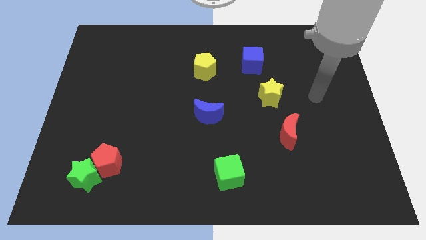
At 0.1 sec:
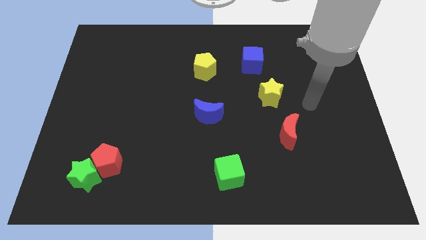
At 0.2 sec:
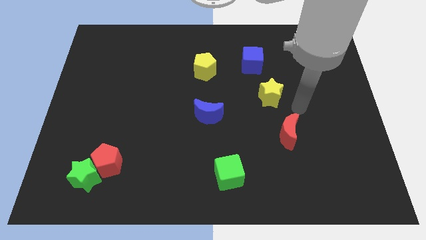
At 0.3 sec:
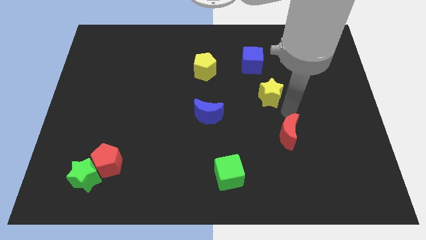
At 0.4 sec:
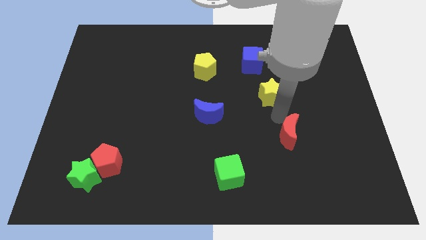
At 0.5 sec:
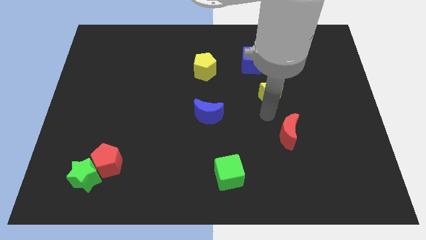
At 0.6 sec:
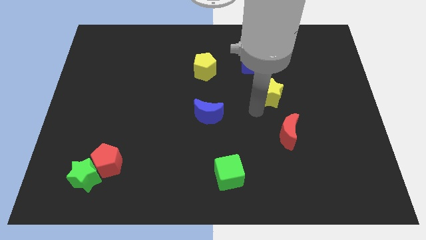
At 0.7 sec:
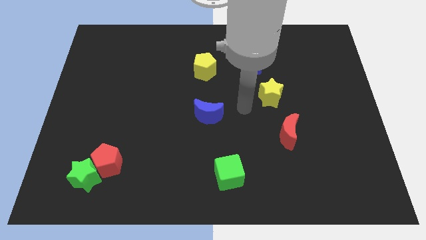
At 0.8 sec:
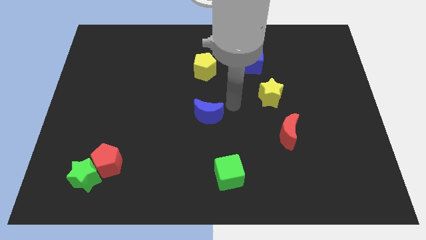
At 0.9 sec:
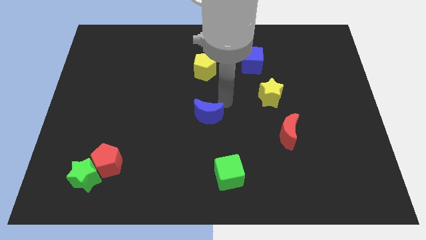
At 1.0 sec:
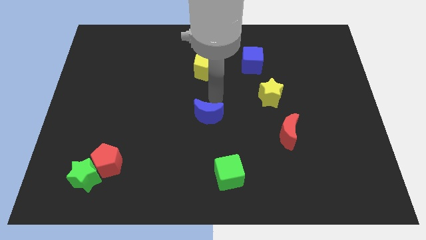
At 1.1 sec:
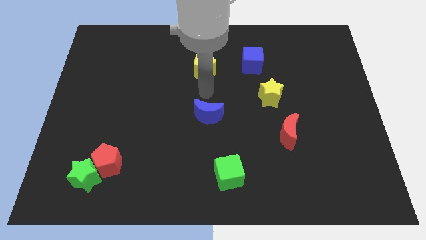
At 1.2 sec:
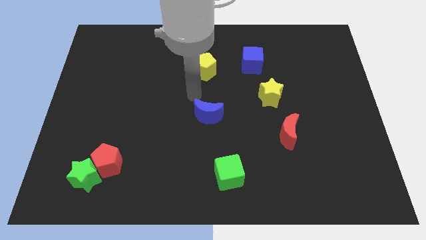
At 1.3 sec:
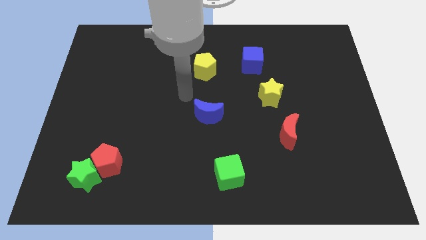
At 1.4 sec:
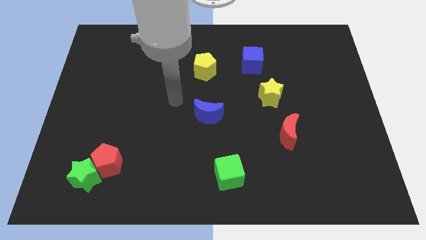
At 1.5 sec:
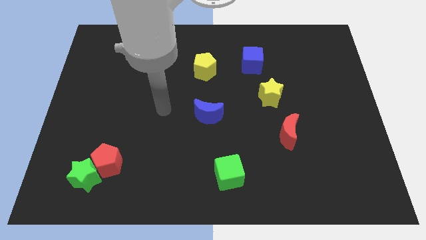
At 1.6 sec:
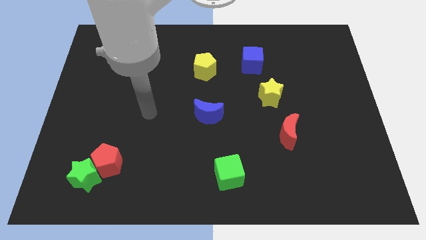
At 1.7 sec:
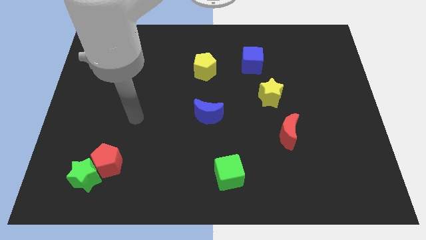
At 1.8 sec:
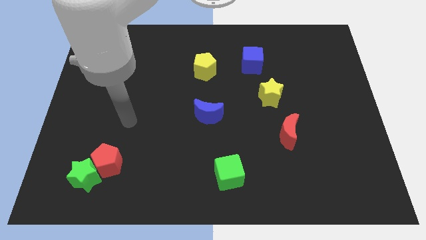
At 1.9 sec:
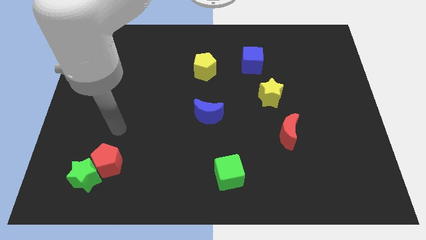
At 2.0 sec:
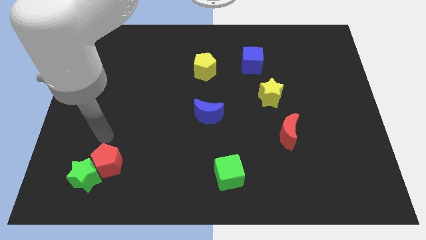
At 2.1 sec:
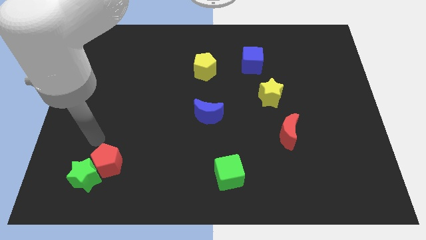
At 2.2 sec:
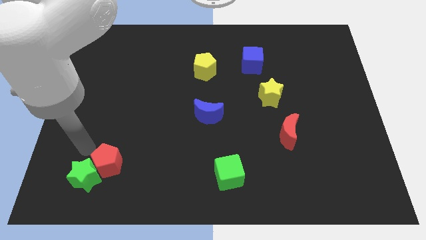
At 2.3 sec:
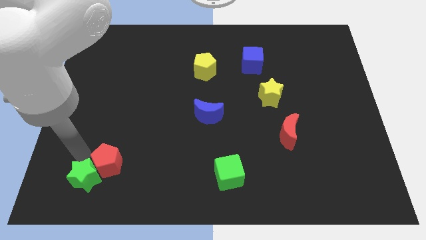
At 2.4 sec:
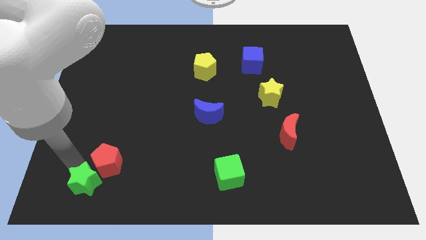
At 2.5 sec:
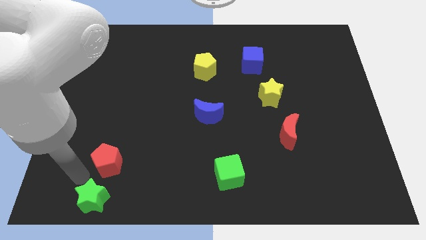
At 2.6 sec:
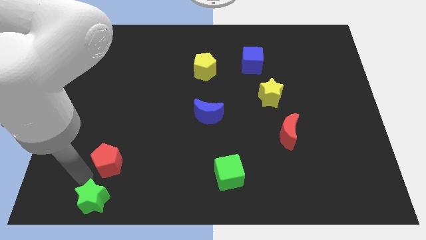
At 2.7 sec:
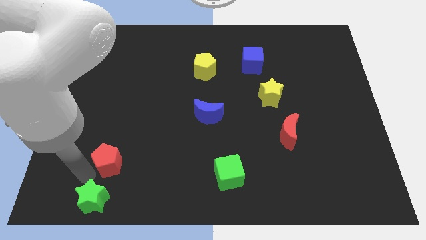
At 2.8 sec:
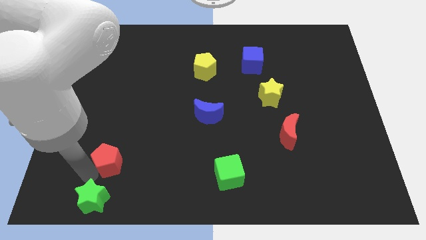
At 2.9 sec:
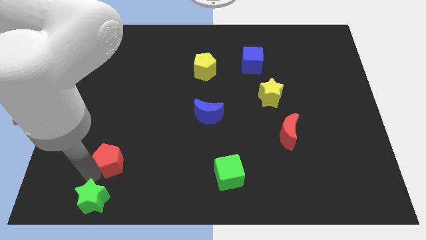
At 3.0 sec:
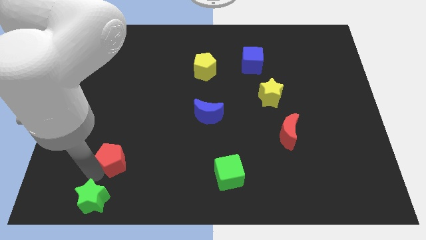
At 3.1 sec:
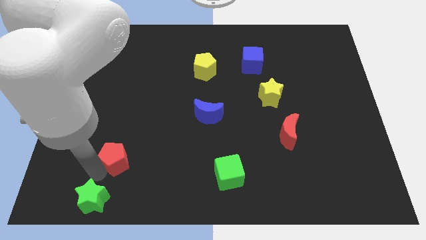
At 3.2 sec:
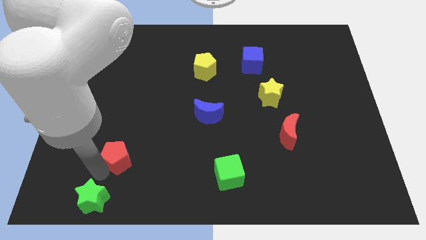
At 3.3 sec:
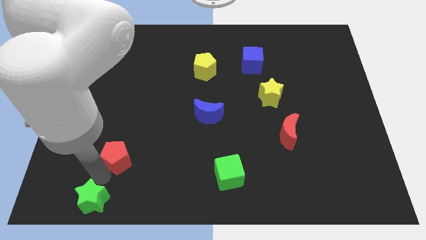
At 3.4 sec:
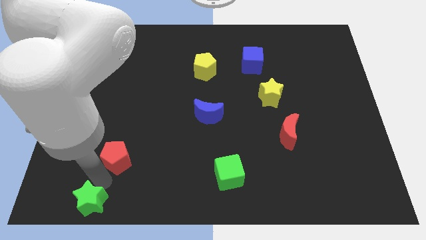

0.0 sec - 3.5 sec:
move the red pentagon away from the green star

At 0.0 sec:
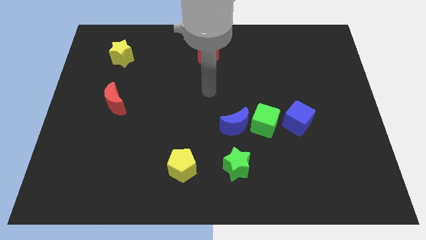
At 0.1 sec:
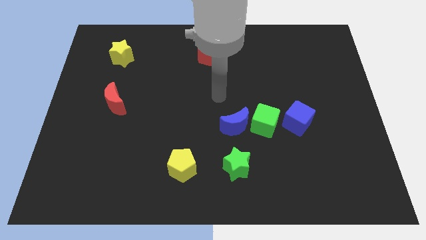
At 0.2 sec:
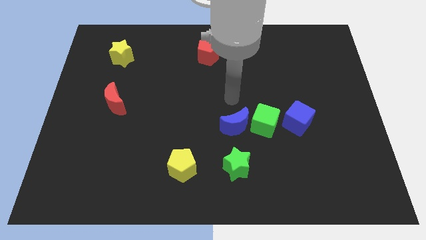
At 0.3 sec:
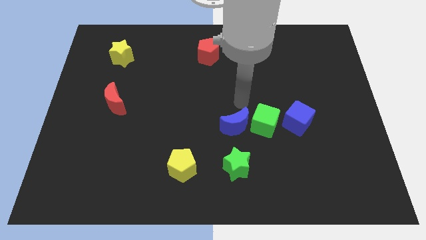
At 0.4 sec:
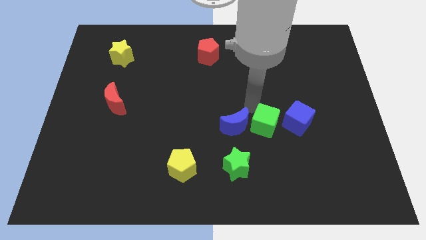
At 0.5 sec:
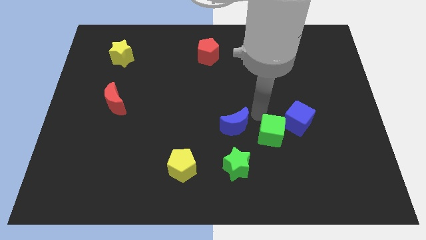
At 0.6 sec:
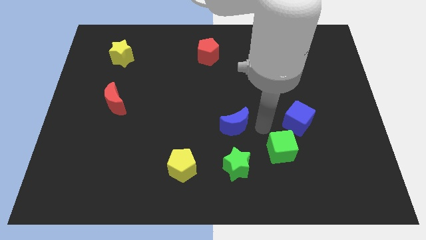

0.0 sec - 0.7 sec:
move the blue moon away from the green cube

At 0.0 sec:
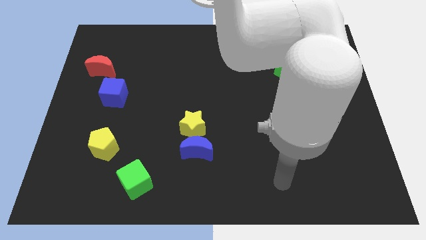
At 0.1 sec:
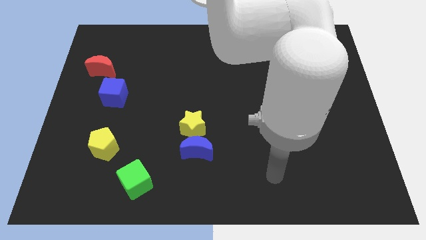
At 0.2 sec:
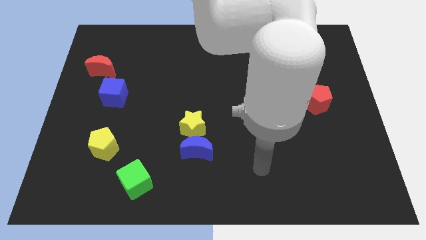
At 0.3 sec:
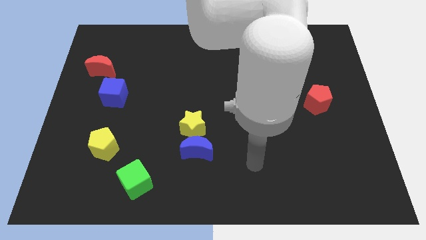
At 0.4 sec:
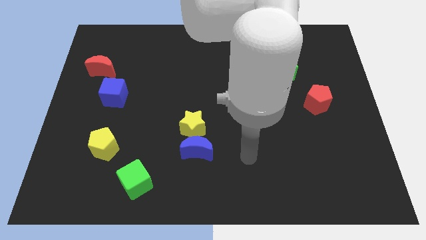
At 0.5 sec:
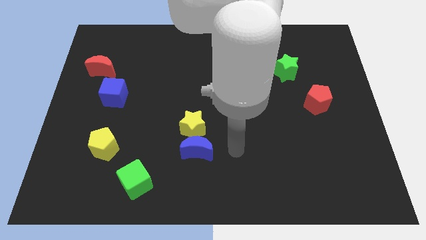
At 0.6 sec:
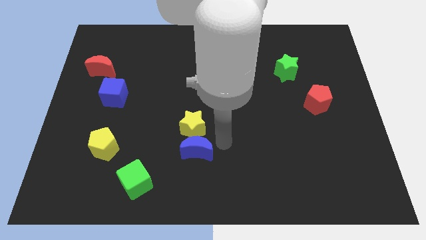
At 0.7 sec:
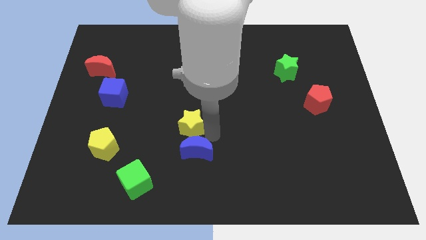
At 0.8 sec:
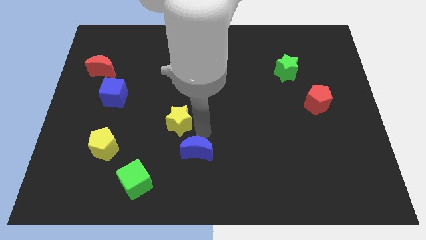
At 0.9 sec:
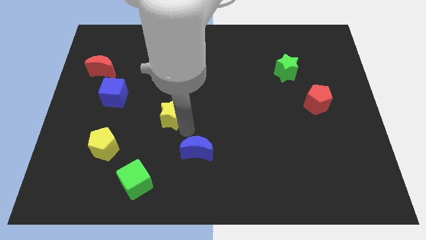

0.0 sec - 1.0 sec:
separate the blue moon from the yellow star

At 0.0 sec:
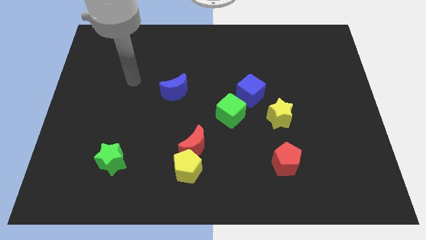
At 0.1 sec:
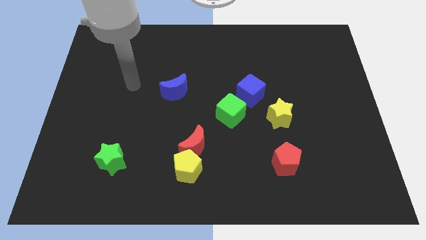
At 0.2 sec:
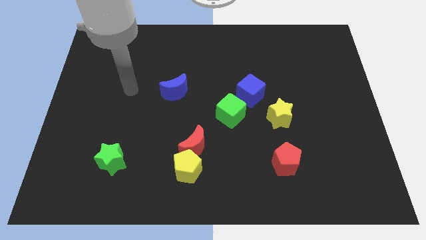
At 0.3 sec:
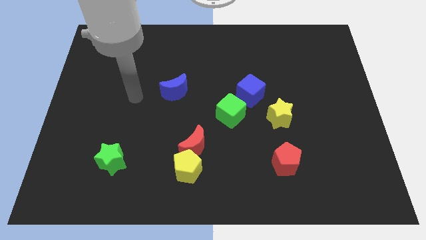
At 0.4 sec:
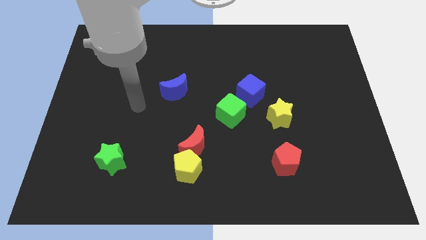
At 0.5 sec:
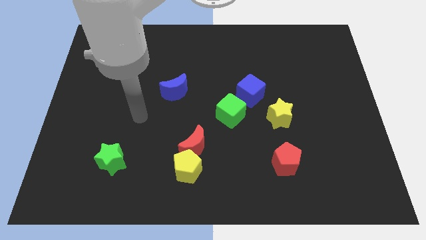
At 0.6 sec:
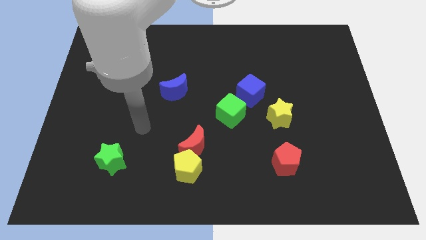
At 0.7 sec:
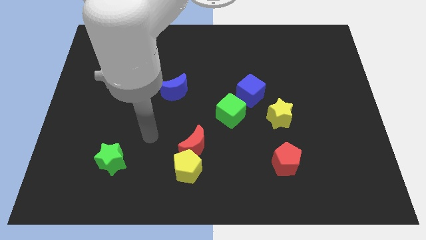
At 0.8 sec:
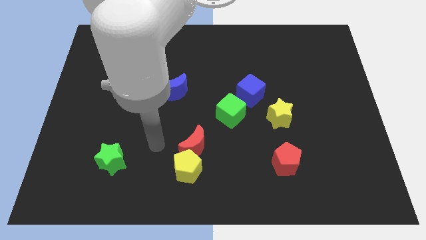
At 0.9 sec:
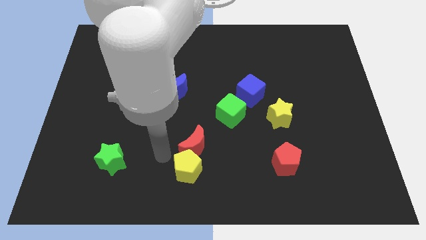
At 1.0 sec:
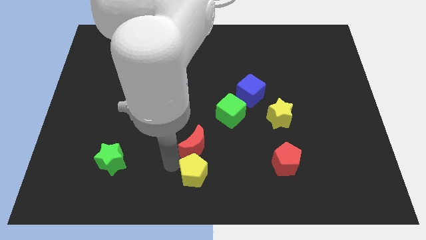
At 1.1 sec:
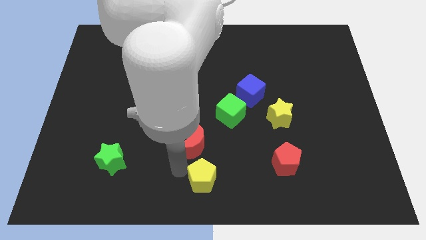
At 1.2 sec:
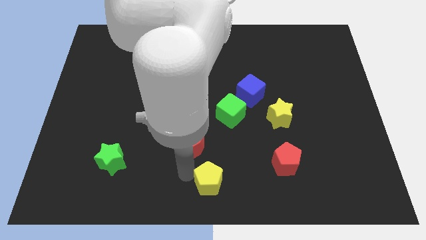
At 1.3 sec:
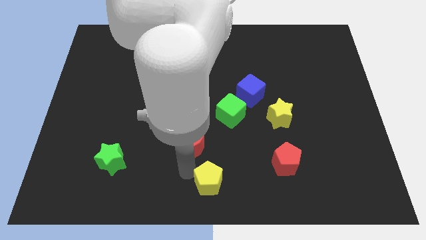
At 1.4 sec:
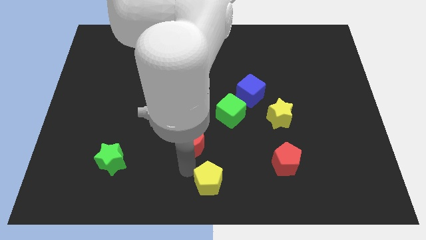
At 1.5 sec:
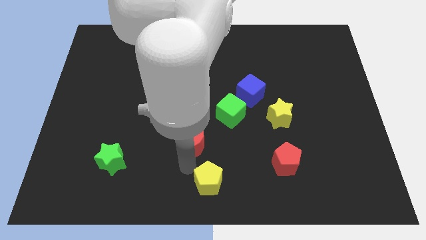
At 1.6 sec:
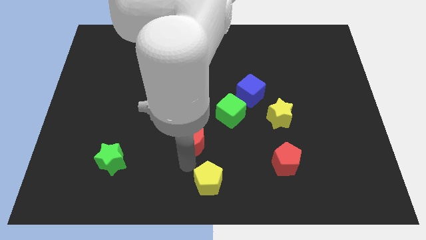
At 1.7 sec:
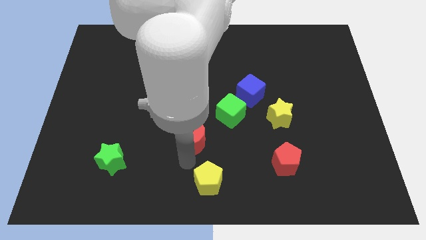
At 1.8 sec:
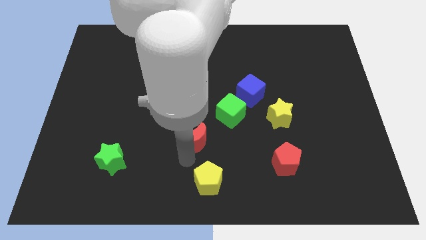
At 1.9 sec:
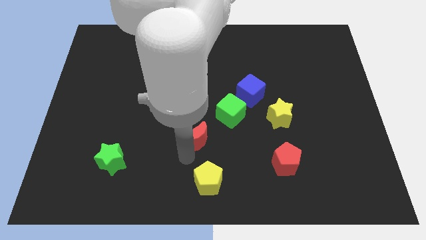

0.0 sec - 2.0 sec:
separate the red moon from the yellow pentagon

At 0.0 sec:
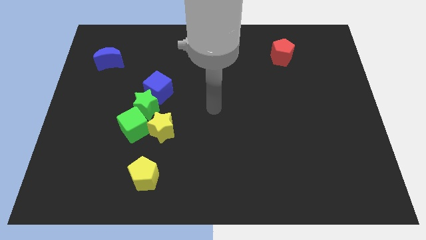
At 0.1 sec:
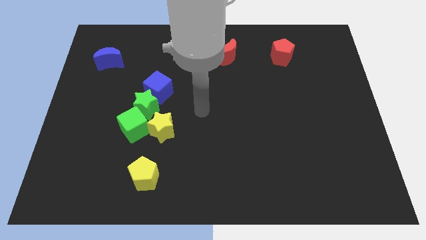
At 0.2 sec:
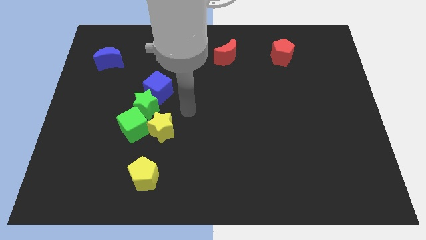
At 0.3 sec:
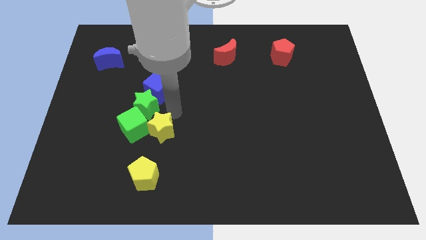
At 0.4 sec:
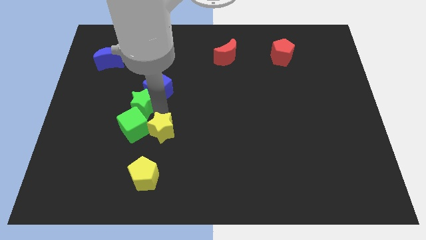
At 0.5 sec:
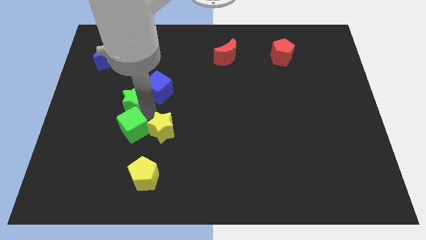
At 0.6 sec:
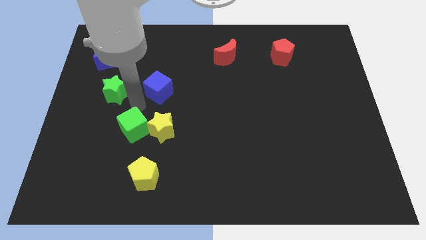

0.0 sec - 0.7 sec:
pull the blue cube apart from the green star

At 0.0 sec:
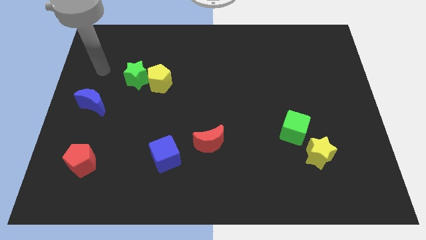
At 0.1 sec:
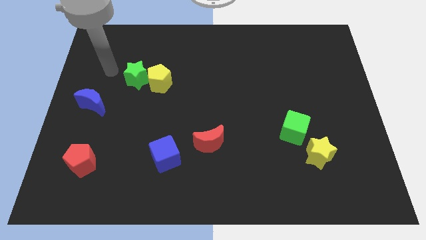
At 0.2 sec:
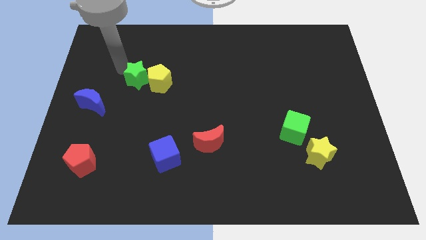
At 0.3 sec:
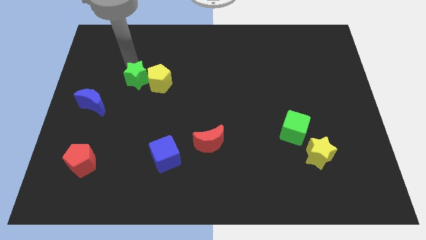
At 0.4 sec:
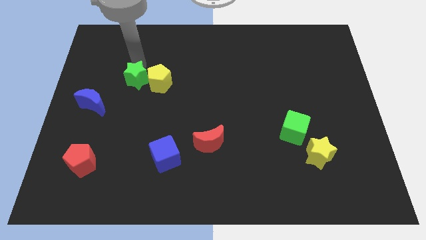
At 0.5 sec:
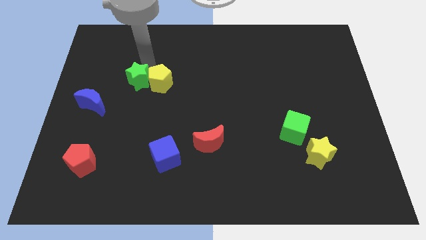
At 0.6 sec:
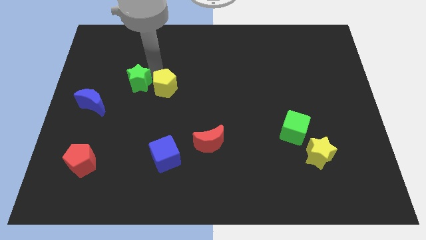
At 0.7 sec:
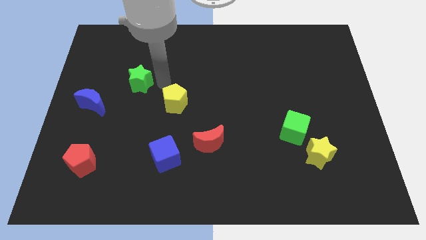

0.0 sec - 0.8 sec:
pull the green star apart from the yellow pentagon

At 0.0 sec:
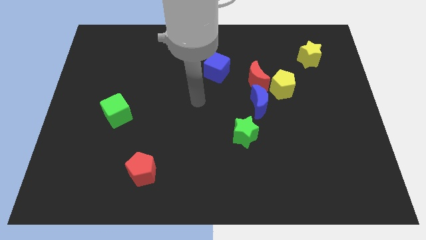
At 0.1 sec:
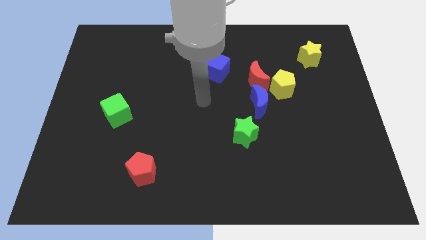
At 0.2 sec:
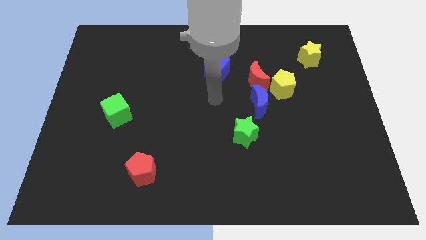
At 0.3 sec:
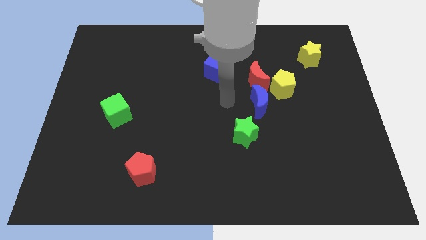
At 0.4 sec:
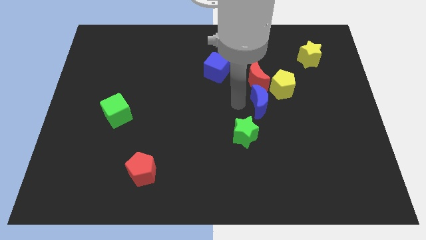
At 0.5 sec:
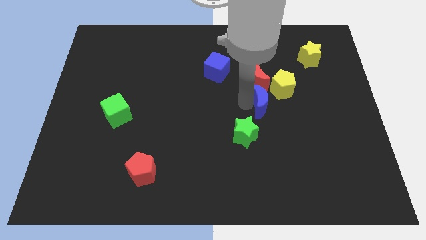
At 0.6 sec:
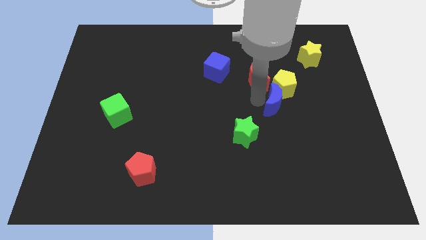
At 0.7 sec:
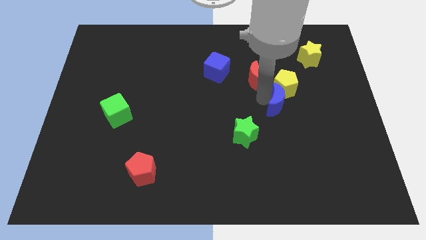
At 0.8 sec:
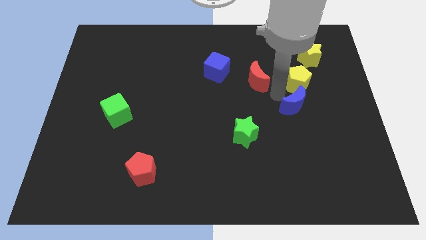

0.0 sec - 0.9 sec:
move the red moon away from the yellow pentagon and blue moon
